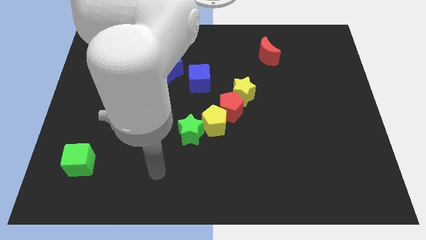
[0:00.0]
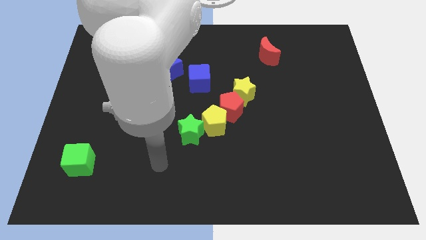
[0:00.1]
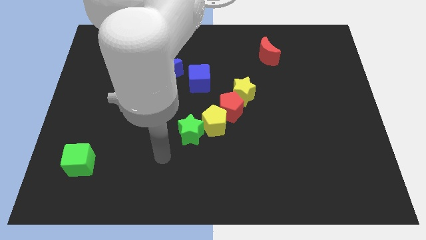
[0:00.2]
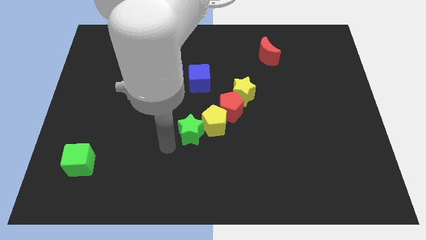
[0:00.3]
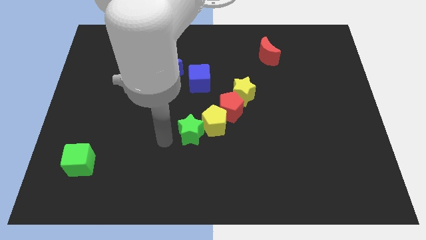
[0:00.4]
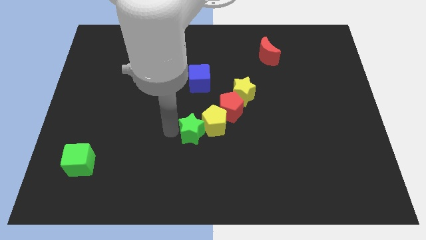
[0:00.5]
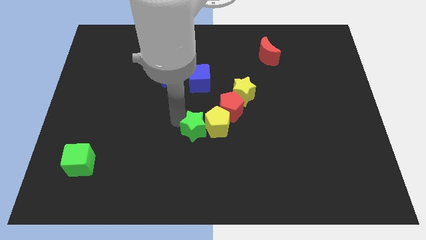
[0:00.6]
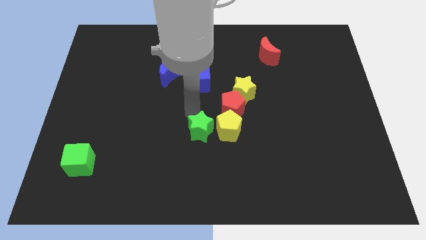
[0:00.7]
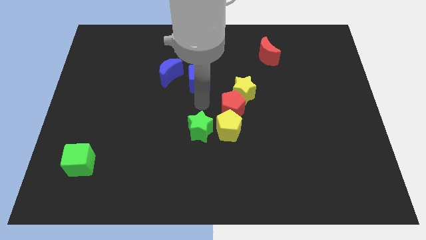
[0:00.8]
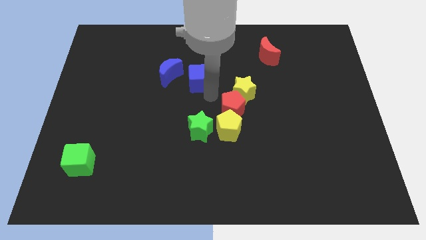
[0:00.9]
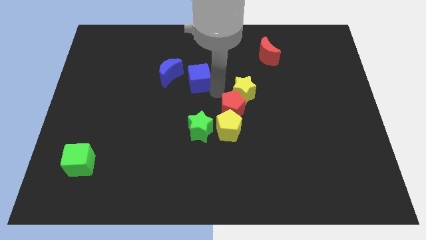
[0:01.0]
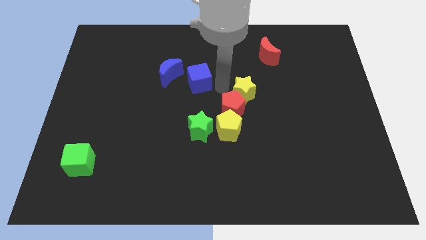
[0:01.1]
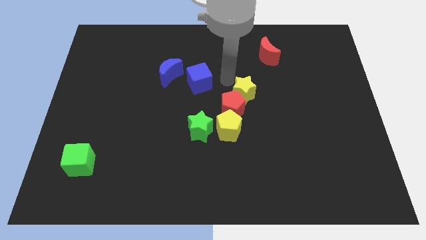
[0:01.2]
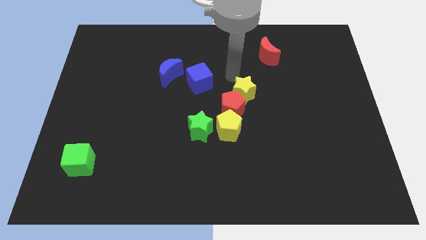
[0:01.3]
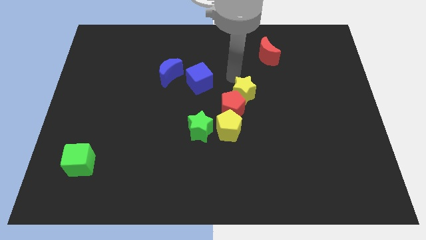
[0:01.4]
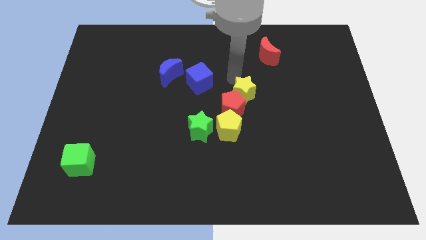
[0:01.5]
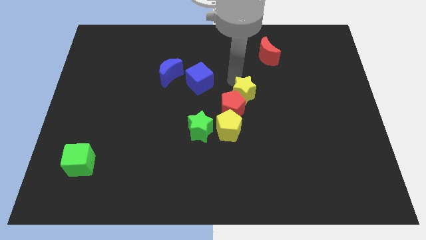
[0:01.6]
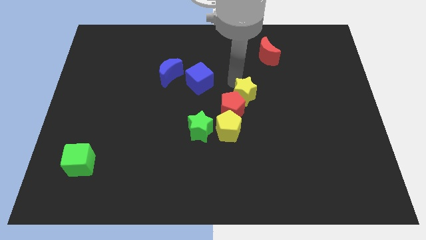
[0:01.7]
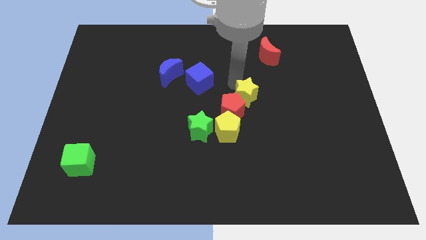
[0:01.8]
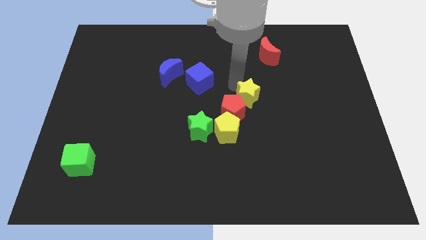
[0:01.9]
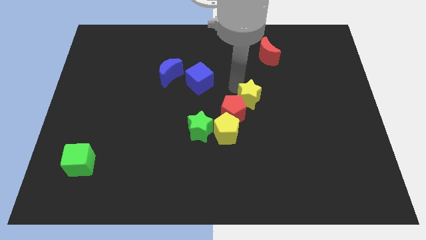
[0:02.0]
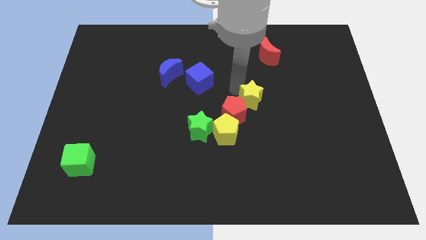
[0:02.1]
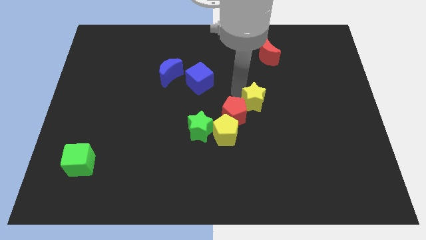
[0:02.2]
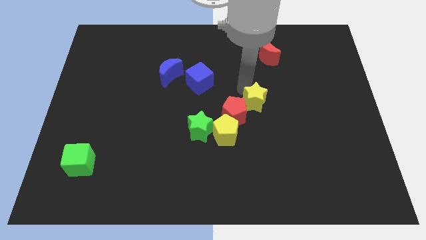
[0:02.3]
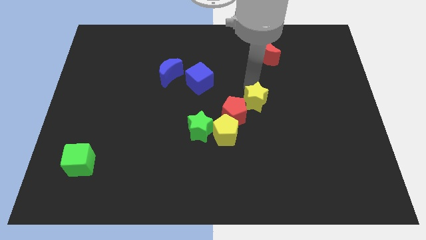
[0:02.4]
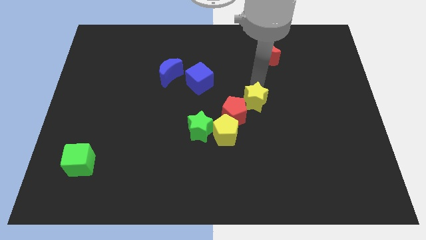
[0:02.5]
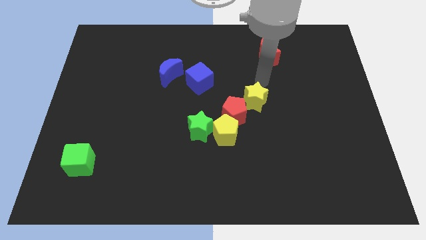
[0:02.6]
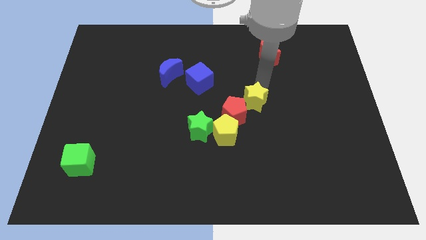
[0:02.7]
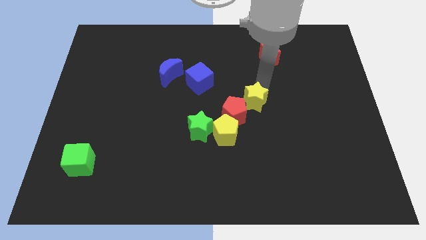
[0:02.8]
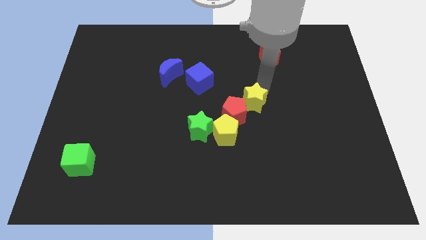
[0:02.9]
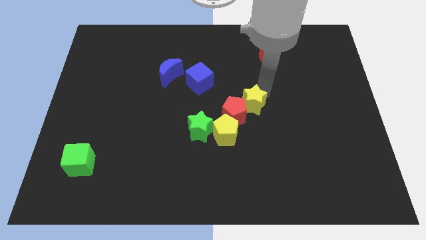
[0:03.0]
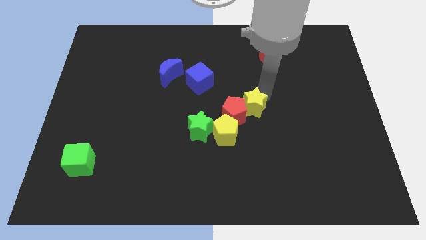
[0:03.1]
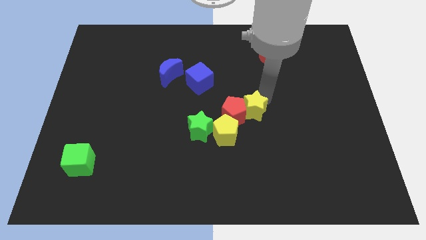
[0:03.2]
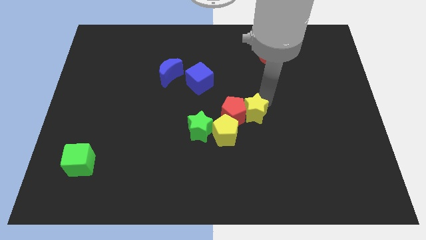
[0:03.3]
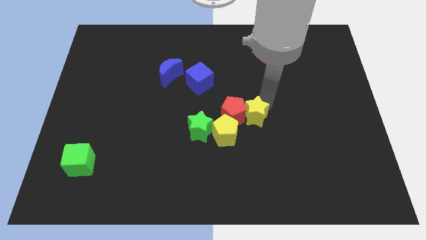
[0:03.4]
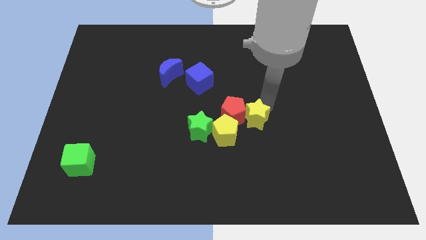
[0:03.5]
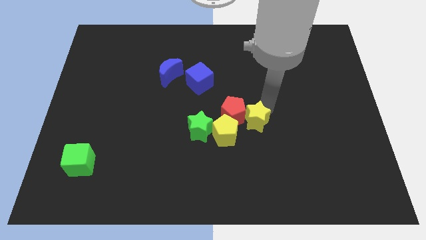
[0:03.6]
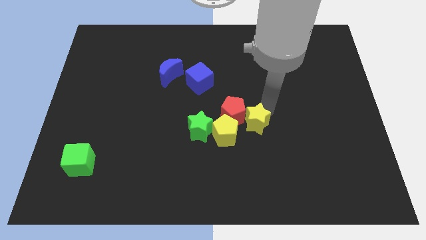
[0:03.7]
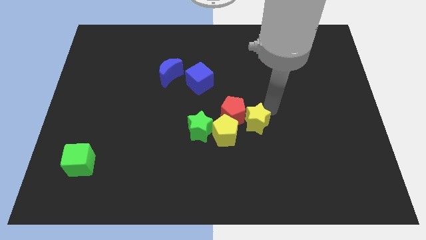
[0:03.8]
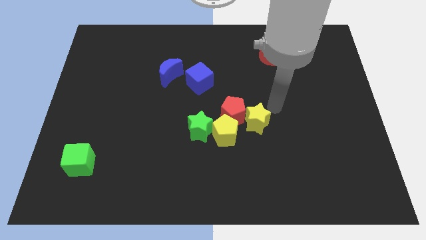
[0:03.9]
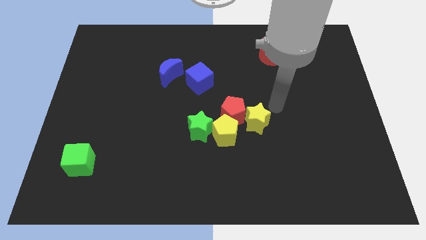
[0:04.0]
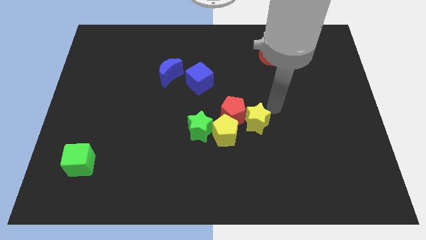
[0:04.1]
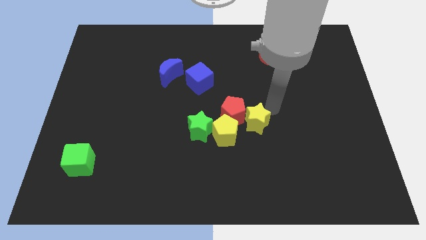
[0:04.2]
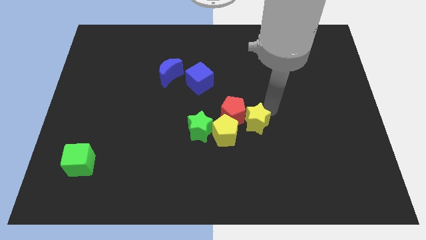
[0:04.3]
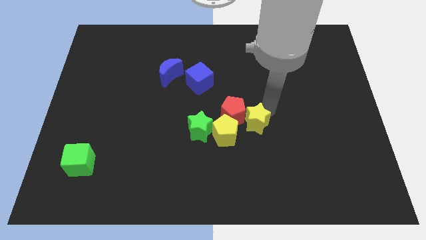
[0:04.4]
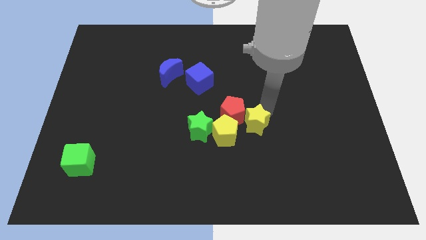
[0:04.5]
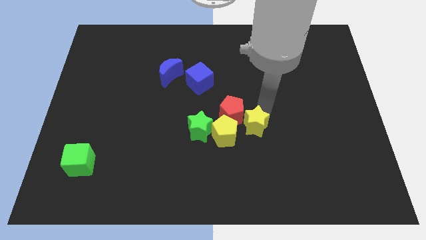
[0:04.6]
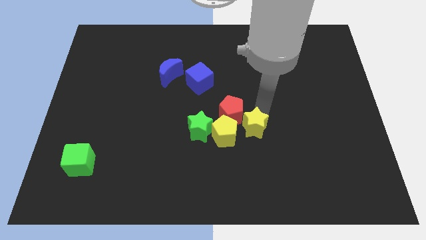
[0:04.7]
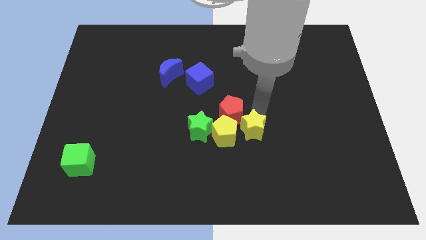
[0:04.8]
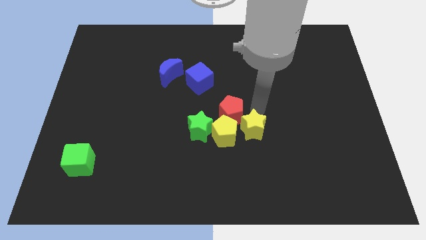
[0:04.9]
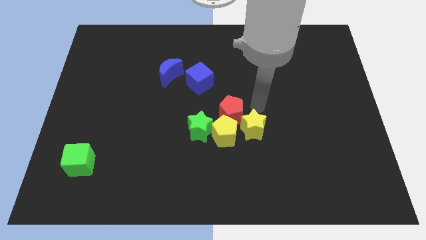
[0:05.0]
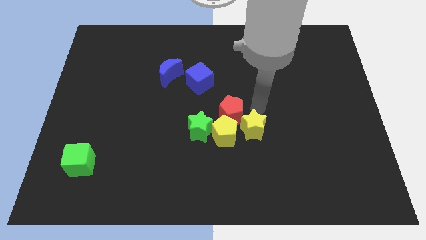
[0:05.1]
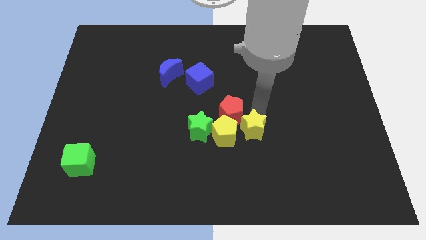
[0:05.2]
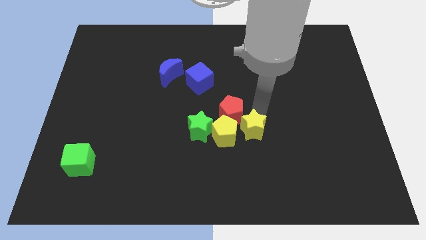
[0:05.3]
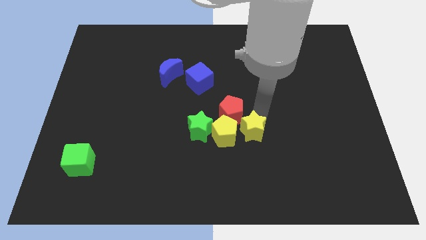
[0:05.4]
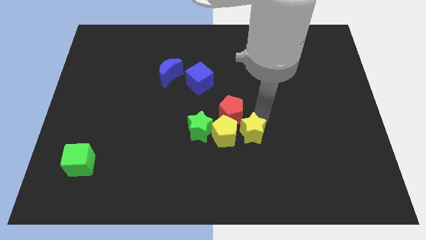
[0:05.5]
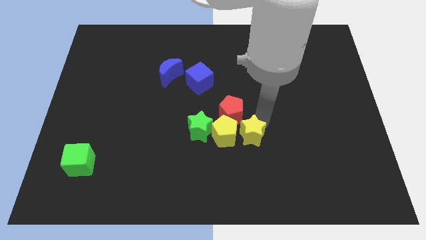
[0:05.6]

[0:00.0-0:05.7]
put the yellow star to the bottom right of the yellow pentagon
